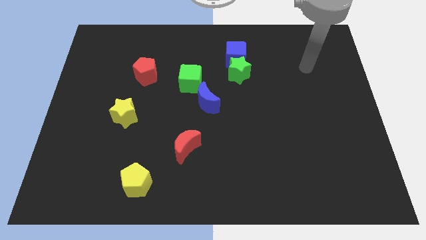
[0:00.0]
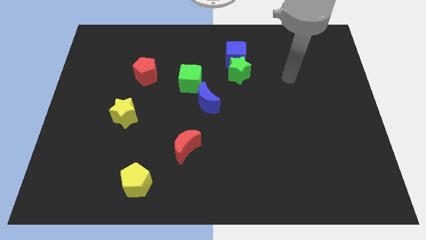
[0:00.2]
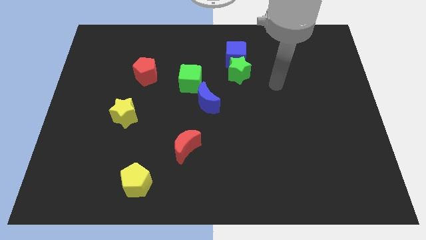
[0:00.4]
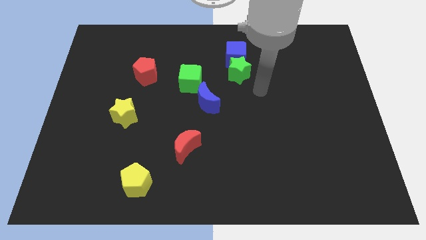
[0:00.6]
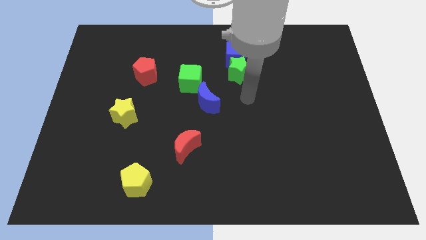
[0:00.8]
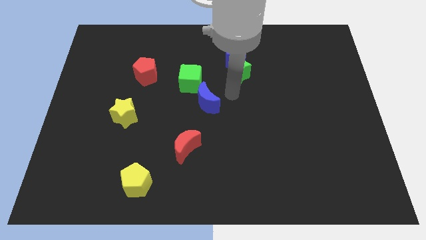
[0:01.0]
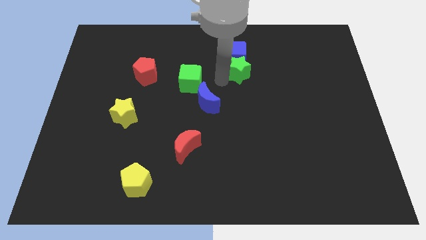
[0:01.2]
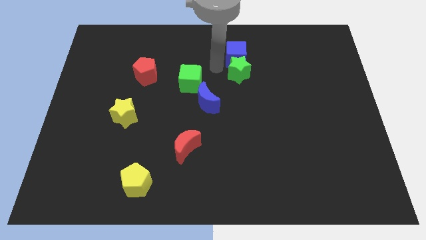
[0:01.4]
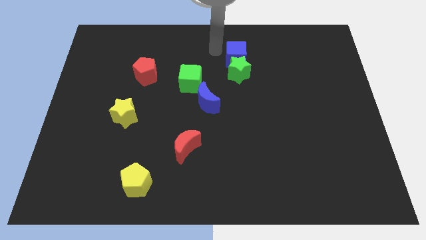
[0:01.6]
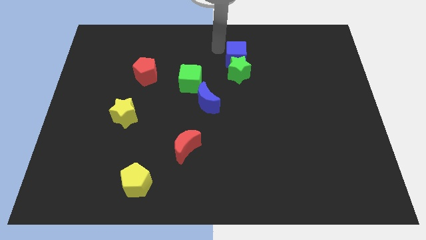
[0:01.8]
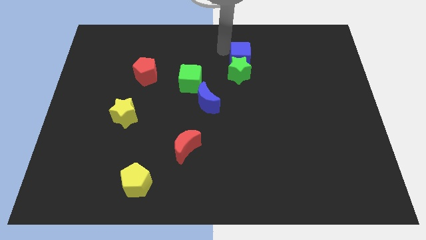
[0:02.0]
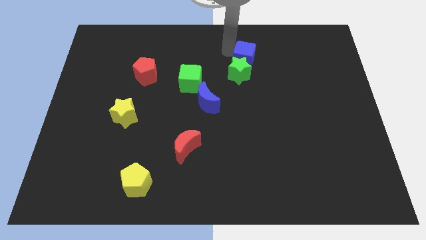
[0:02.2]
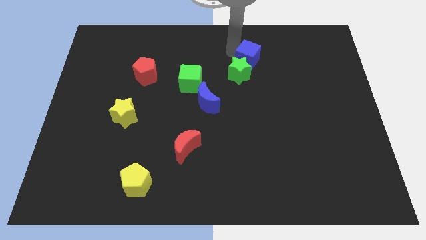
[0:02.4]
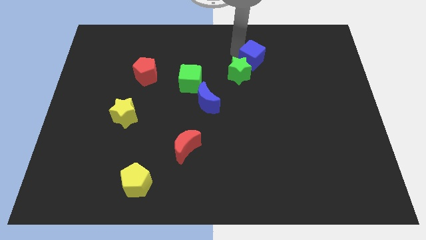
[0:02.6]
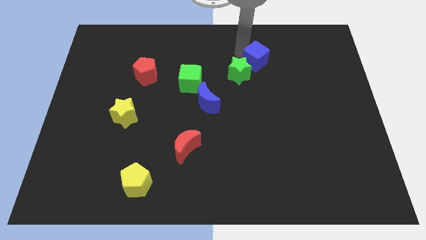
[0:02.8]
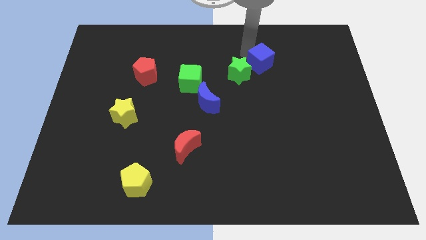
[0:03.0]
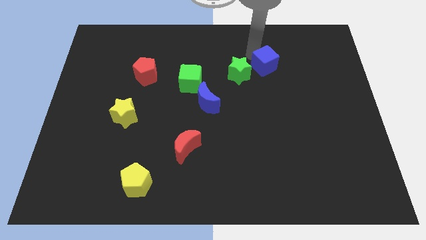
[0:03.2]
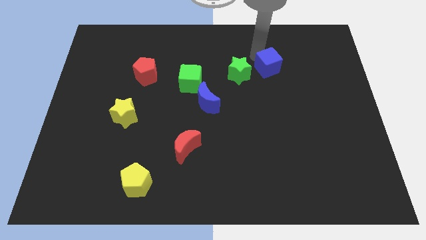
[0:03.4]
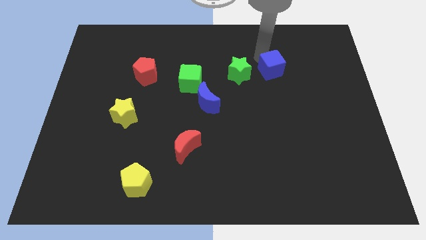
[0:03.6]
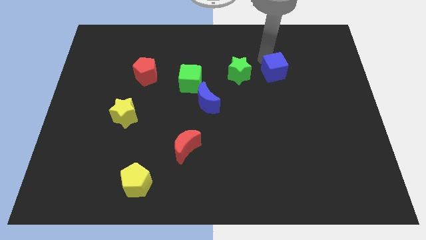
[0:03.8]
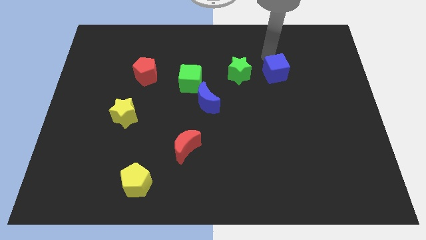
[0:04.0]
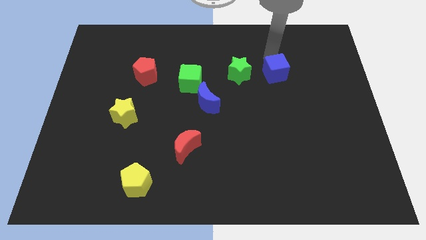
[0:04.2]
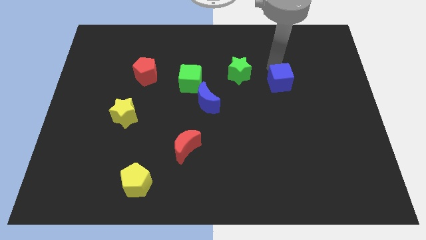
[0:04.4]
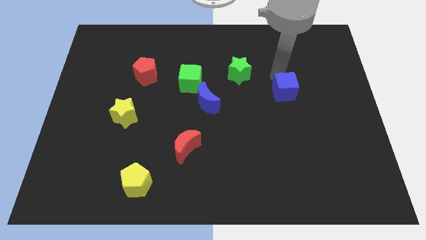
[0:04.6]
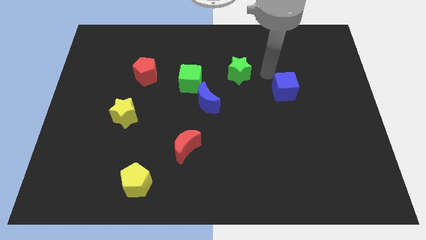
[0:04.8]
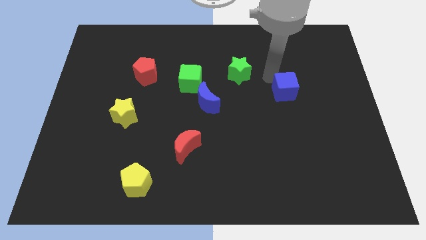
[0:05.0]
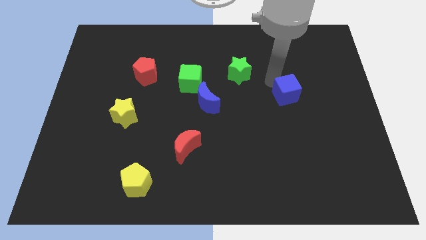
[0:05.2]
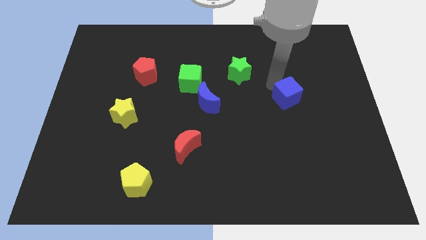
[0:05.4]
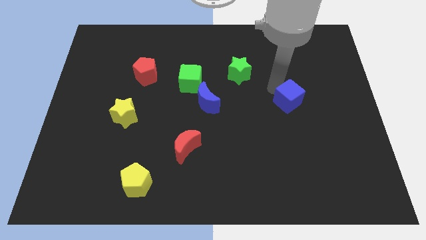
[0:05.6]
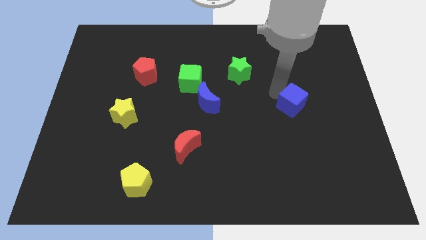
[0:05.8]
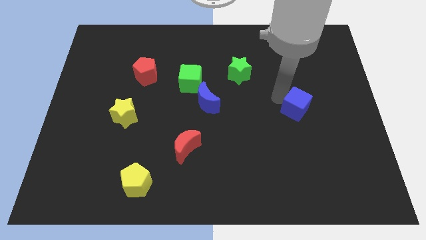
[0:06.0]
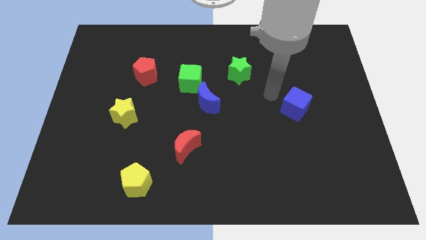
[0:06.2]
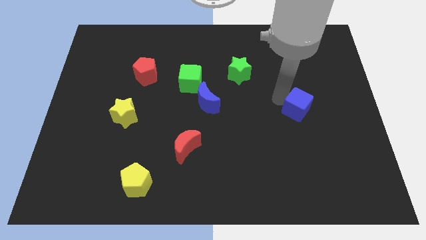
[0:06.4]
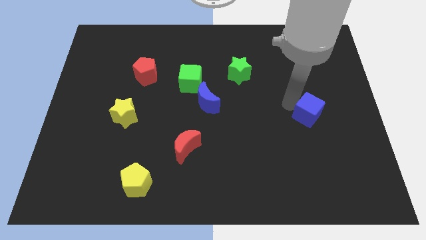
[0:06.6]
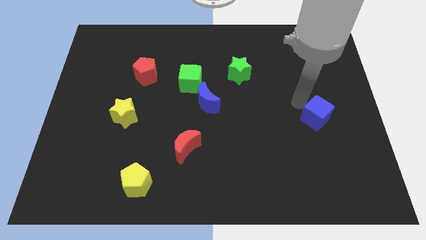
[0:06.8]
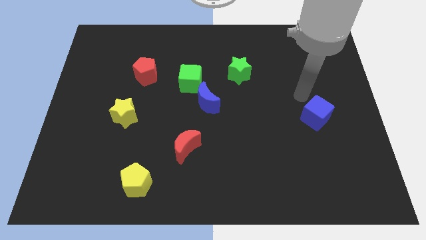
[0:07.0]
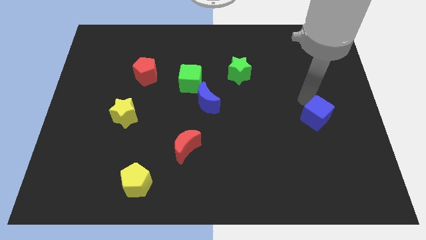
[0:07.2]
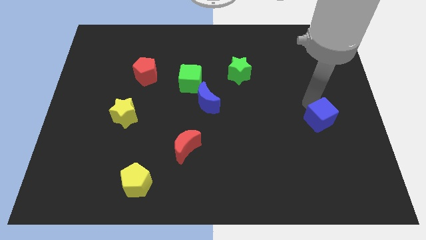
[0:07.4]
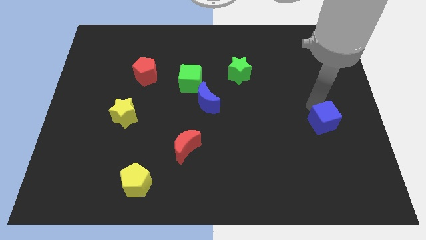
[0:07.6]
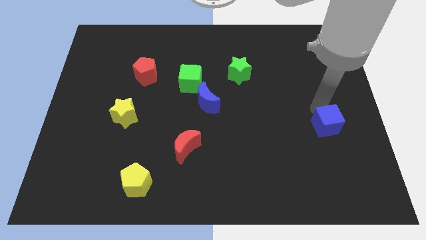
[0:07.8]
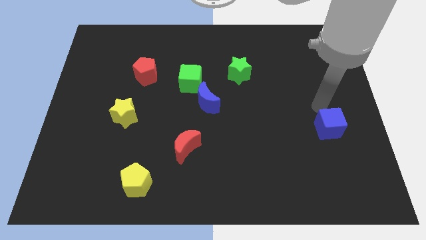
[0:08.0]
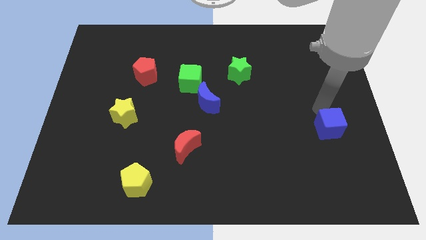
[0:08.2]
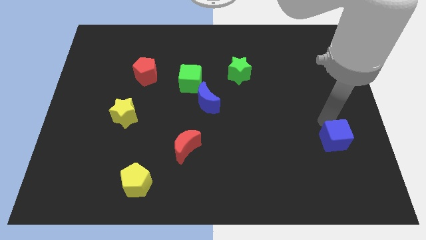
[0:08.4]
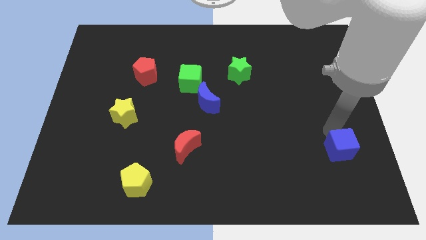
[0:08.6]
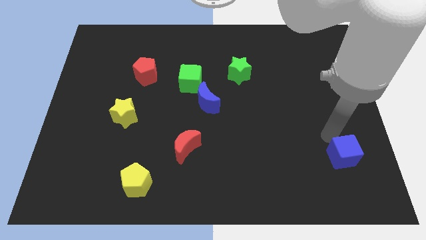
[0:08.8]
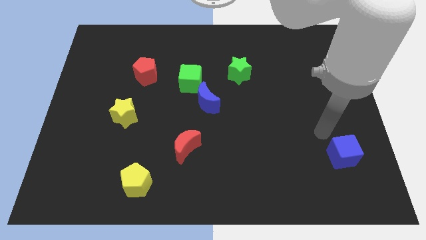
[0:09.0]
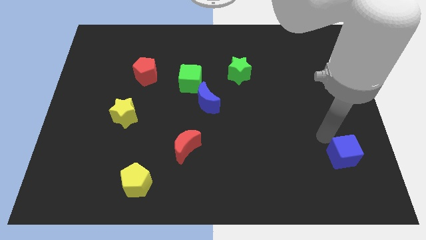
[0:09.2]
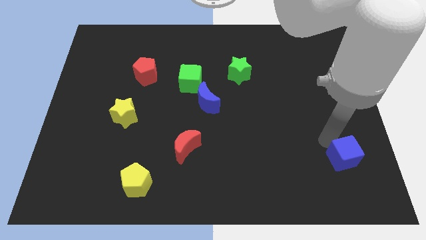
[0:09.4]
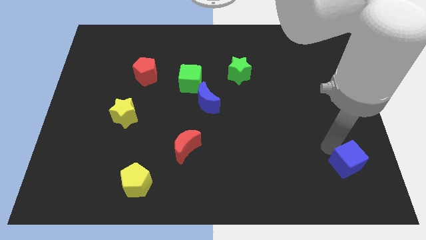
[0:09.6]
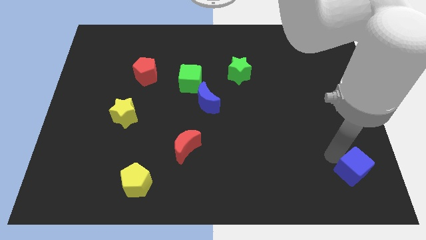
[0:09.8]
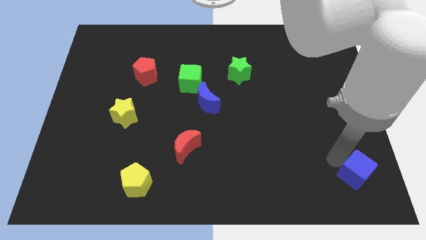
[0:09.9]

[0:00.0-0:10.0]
put the blue cube to the lower right corner

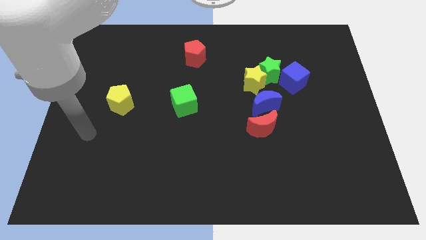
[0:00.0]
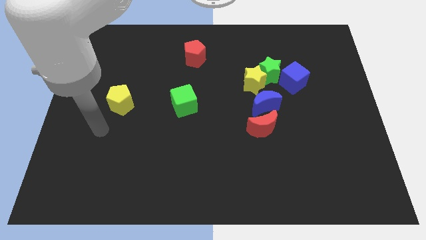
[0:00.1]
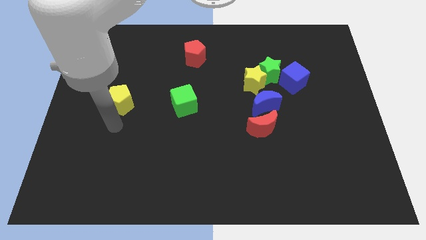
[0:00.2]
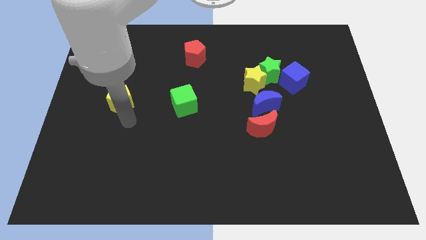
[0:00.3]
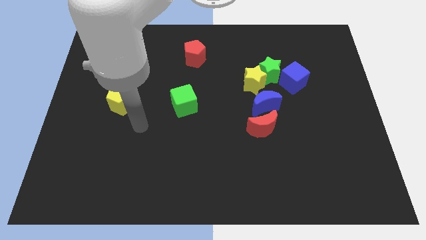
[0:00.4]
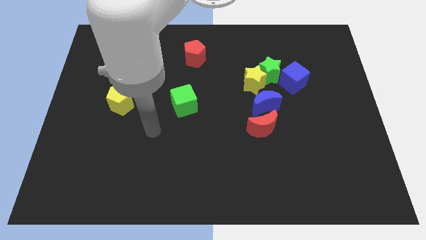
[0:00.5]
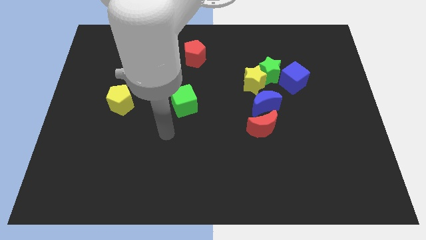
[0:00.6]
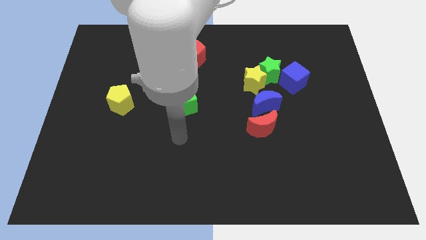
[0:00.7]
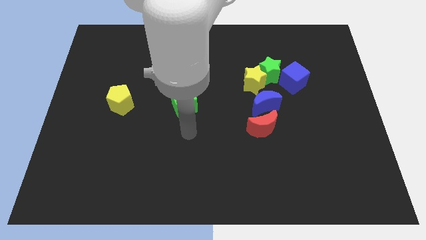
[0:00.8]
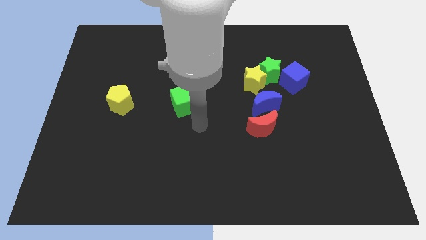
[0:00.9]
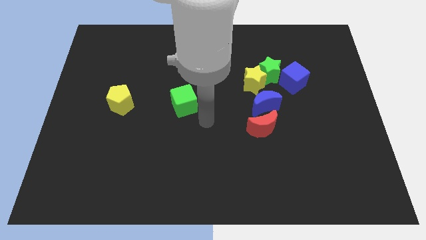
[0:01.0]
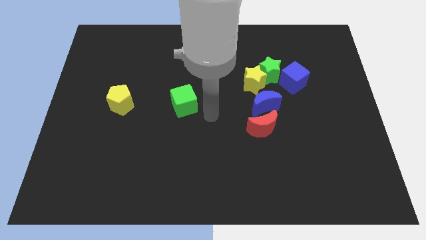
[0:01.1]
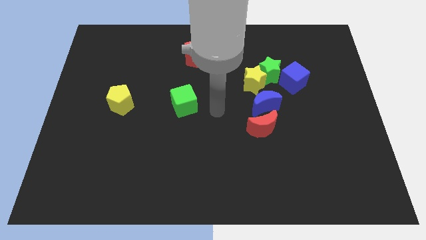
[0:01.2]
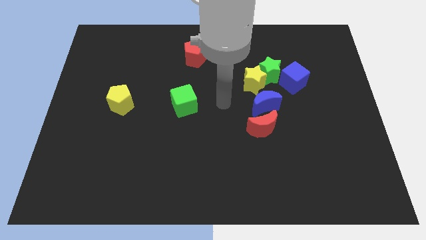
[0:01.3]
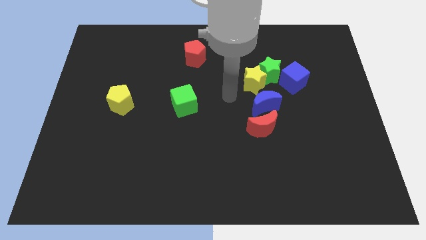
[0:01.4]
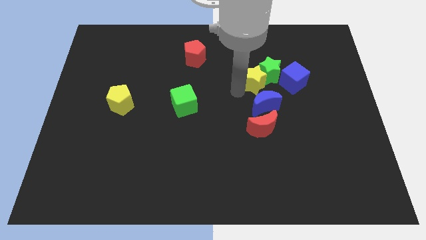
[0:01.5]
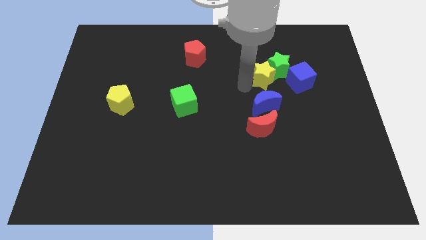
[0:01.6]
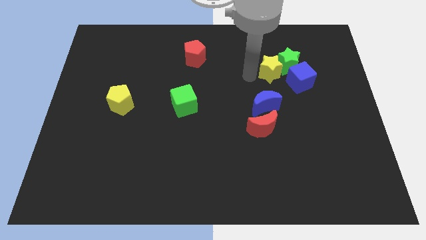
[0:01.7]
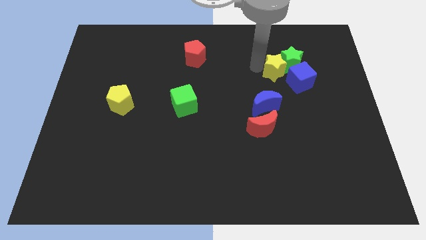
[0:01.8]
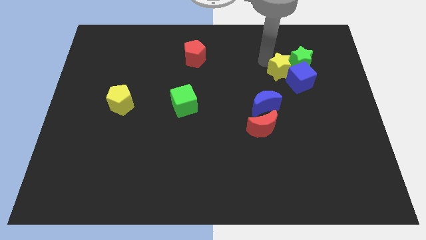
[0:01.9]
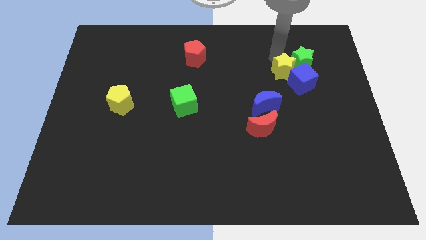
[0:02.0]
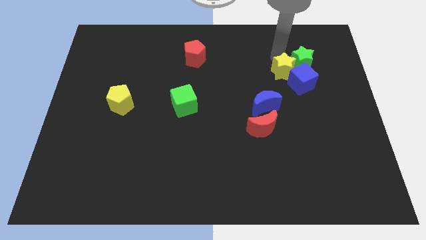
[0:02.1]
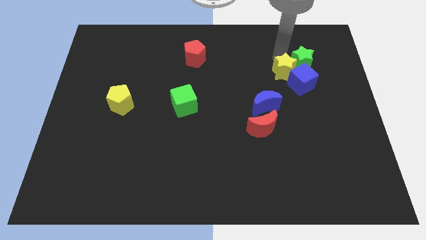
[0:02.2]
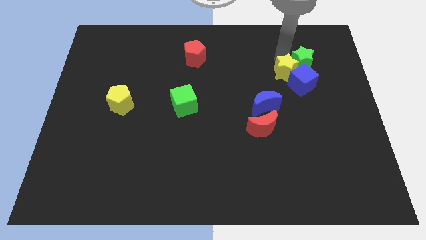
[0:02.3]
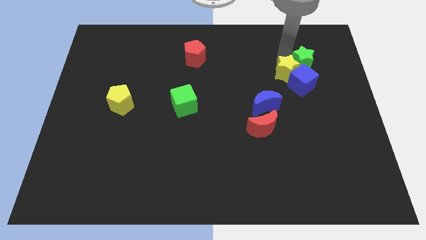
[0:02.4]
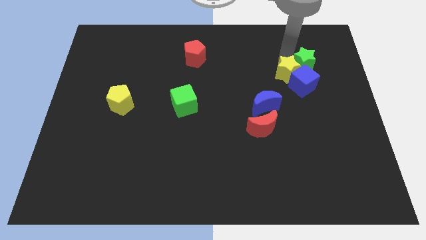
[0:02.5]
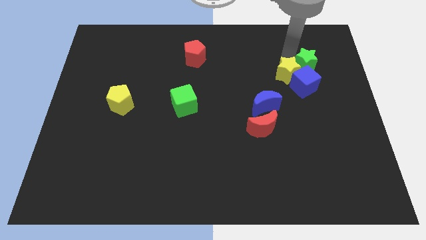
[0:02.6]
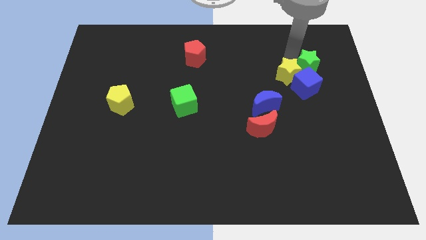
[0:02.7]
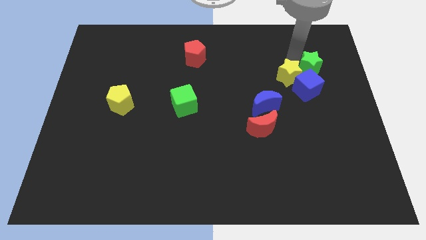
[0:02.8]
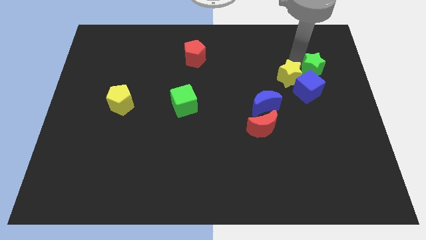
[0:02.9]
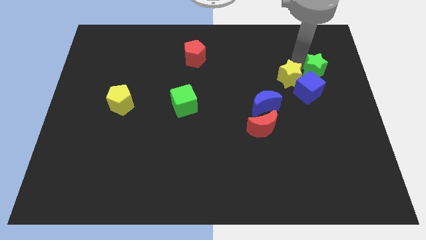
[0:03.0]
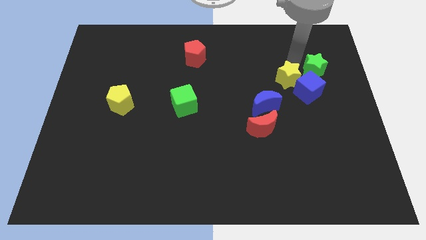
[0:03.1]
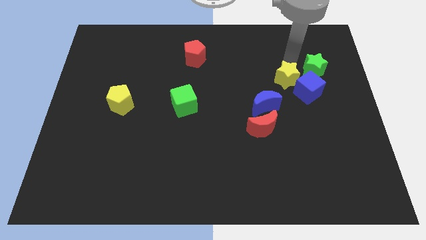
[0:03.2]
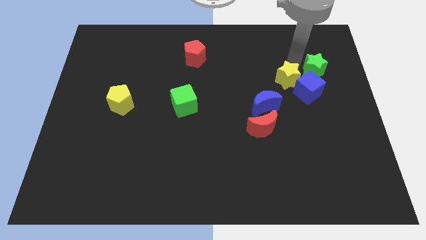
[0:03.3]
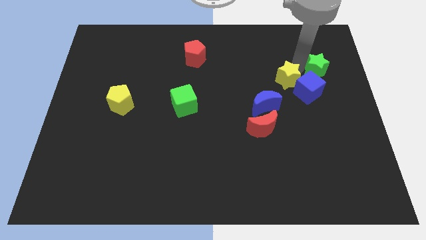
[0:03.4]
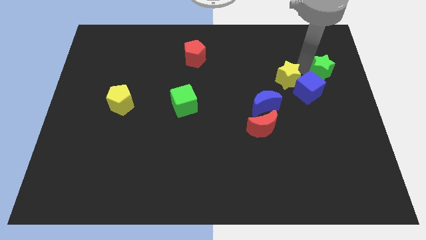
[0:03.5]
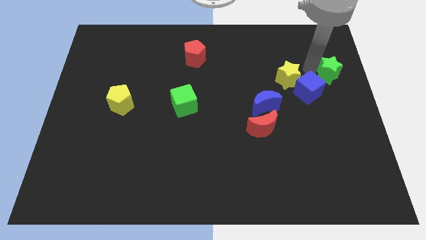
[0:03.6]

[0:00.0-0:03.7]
move the green star to the center right
